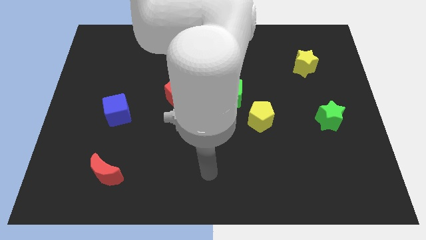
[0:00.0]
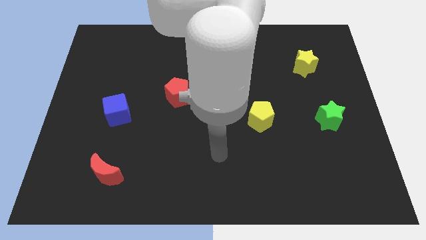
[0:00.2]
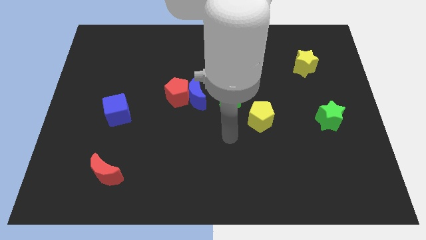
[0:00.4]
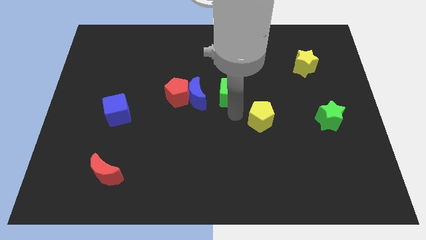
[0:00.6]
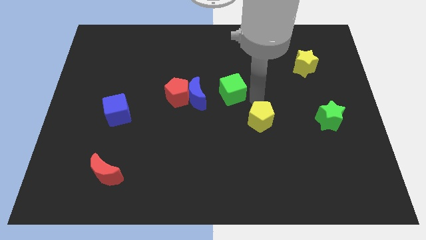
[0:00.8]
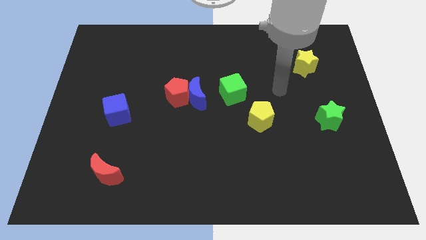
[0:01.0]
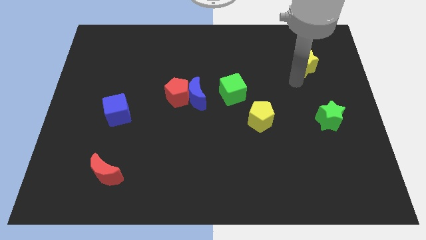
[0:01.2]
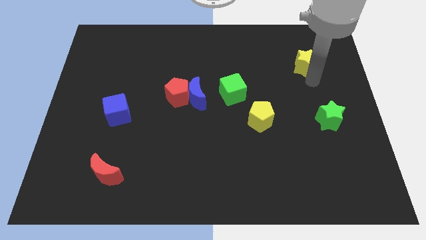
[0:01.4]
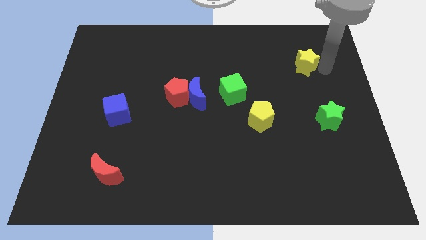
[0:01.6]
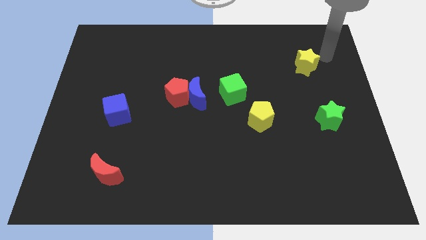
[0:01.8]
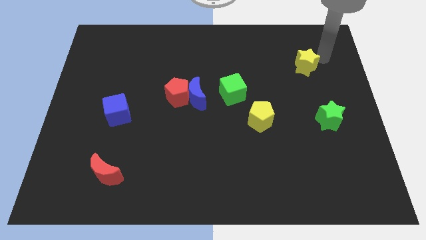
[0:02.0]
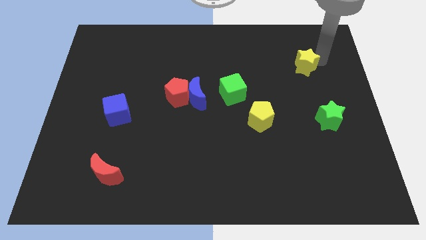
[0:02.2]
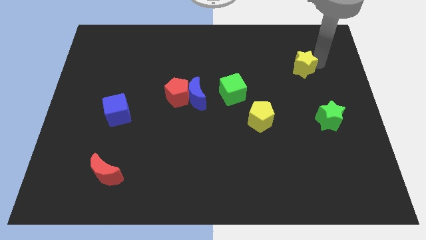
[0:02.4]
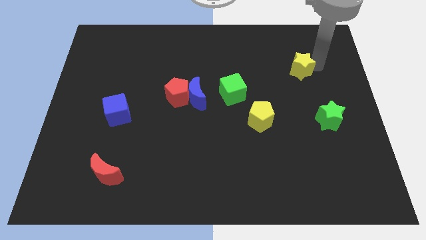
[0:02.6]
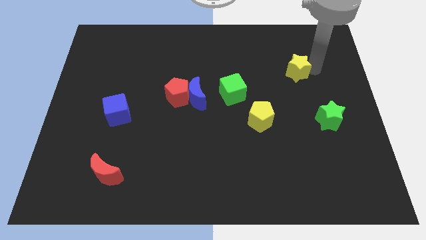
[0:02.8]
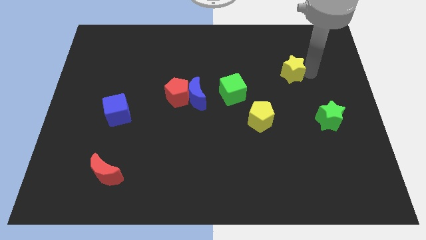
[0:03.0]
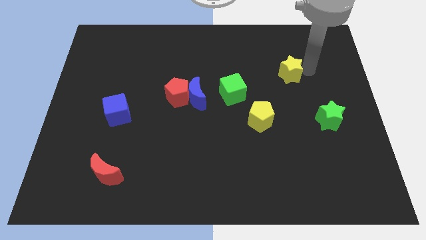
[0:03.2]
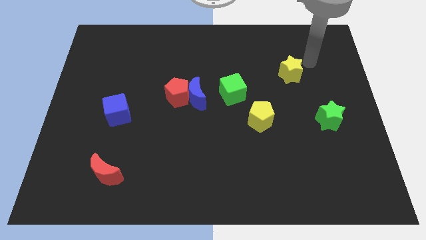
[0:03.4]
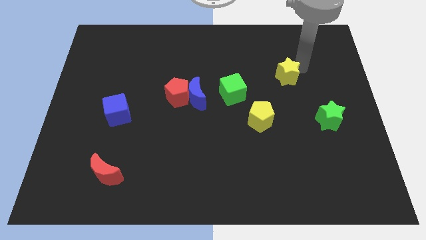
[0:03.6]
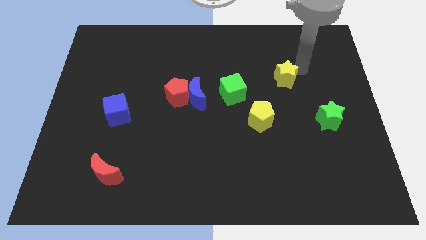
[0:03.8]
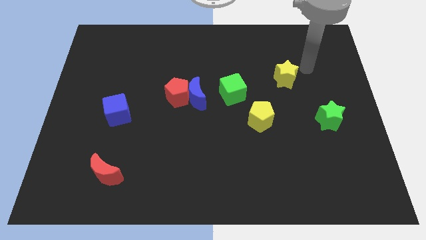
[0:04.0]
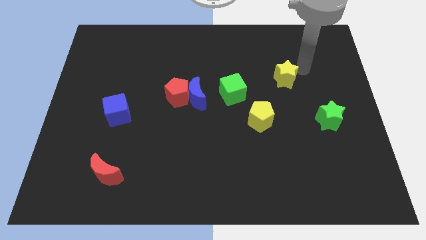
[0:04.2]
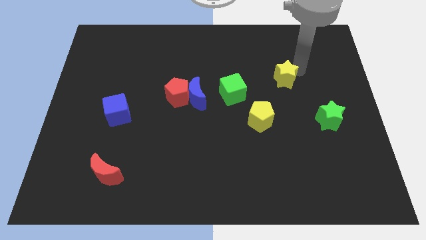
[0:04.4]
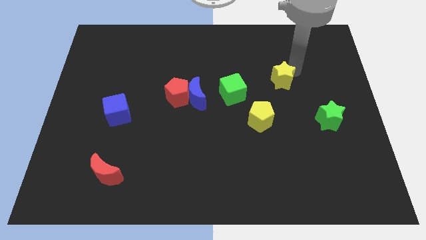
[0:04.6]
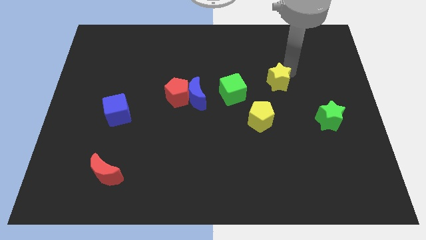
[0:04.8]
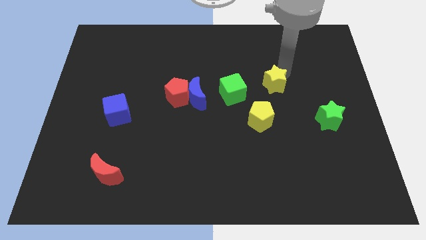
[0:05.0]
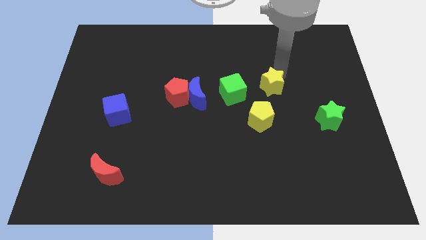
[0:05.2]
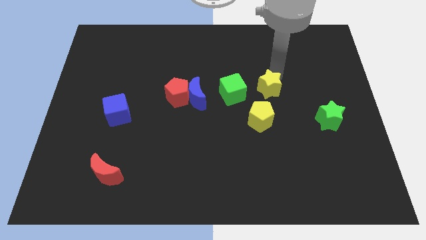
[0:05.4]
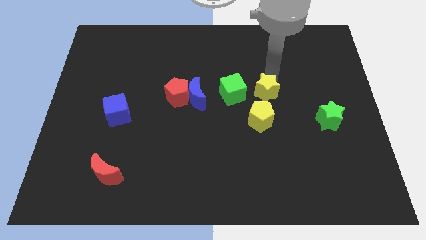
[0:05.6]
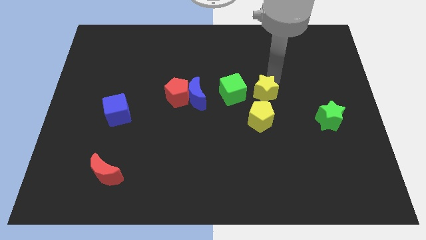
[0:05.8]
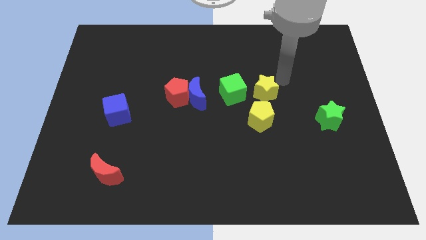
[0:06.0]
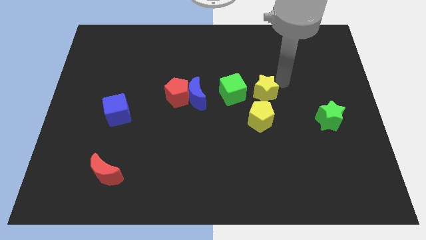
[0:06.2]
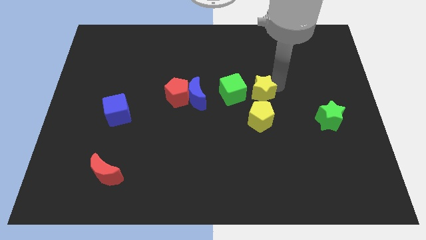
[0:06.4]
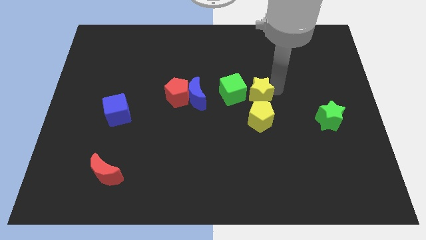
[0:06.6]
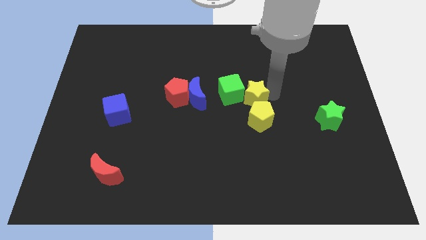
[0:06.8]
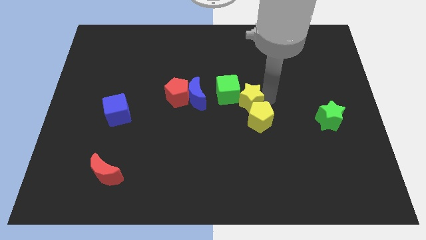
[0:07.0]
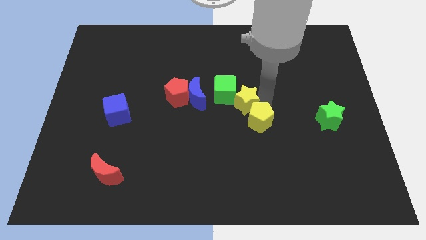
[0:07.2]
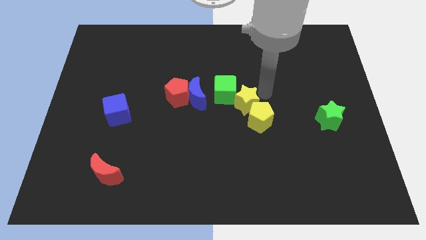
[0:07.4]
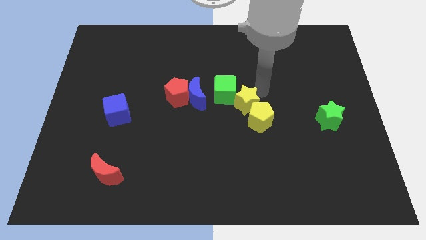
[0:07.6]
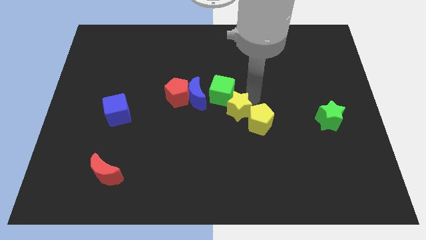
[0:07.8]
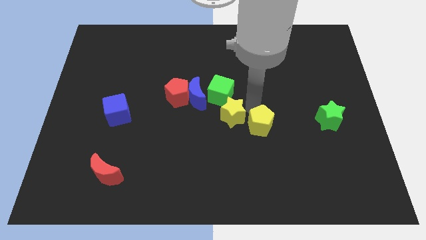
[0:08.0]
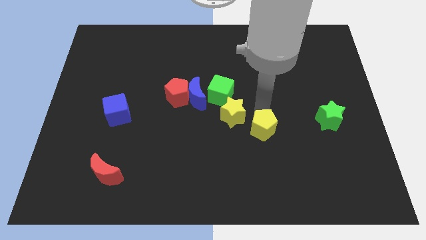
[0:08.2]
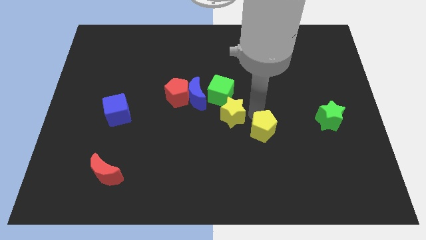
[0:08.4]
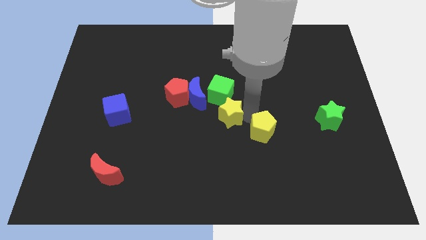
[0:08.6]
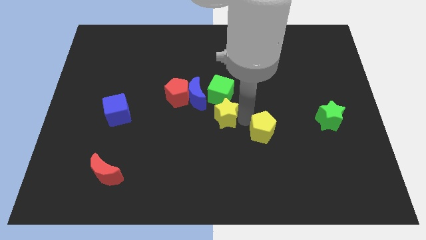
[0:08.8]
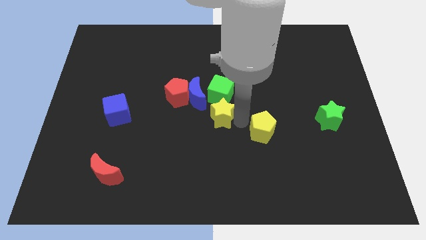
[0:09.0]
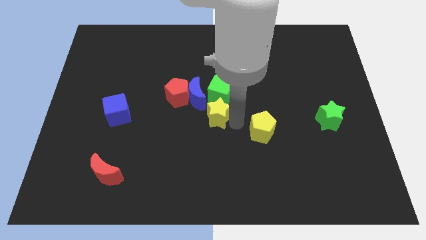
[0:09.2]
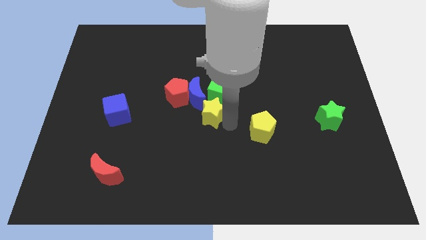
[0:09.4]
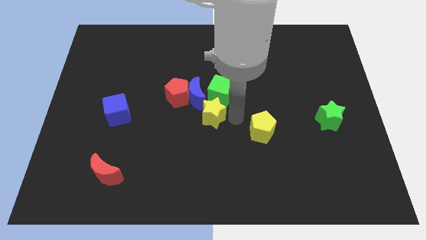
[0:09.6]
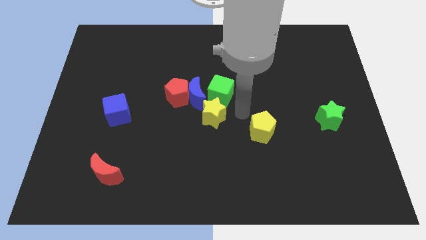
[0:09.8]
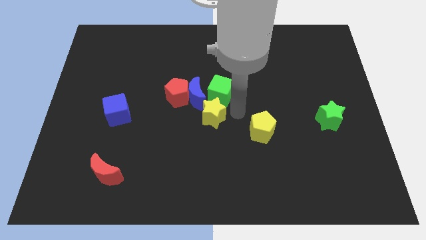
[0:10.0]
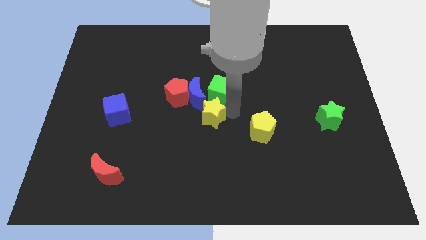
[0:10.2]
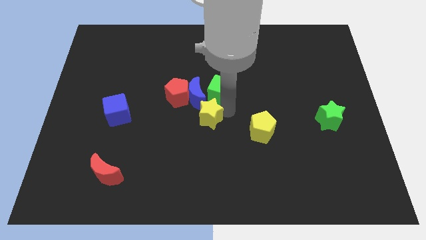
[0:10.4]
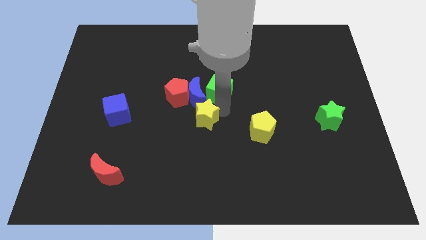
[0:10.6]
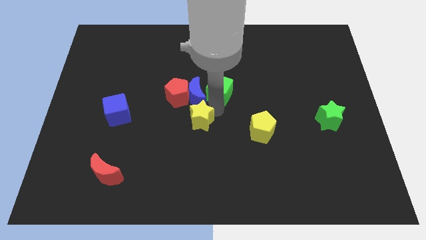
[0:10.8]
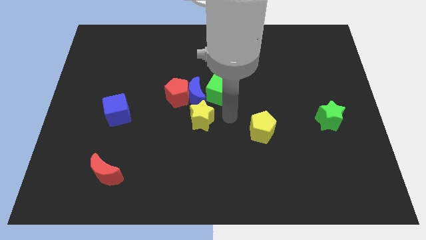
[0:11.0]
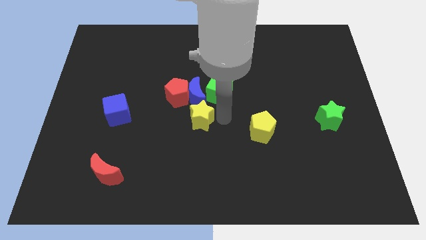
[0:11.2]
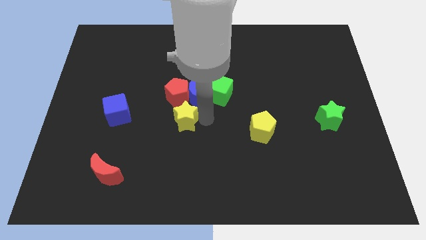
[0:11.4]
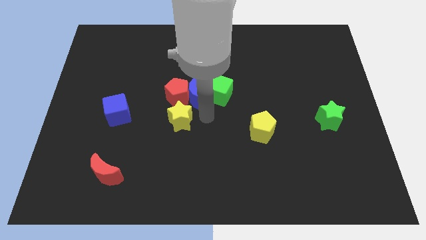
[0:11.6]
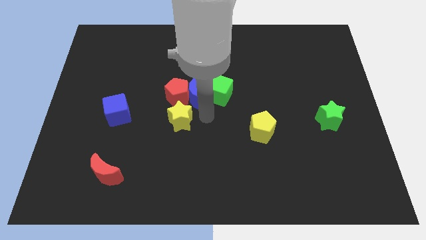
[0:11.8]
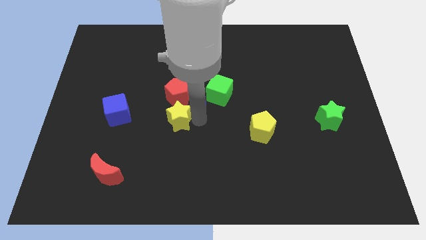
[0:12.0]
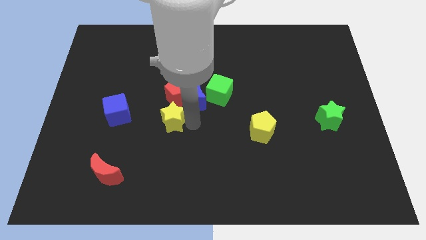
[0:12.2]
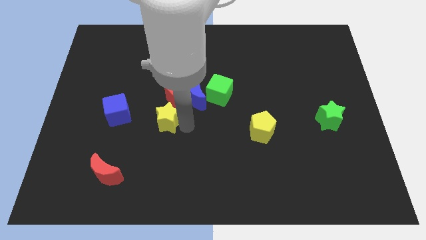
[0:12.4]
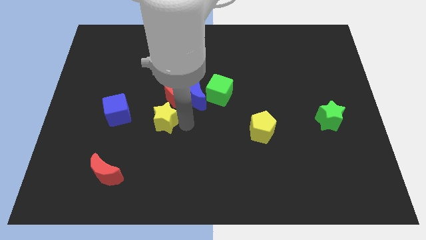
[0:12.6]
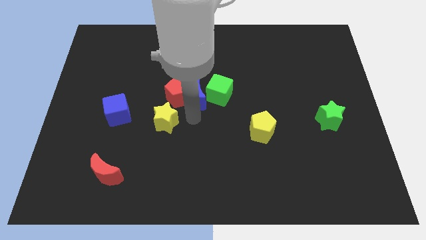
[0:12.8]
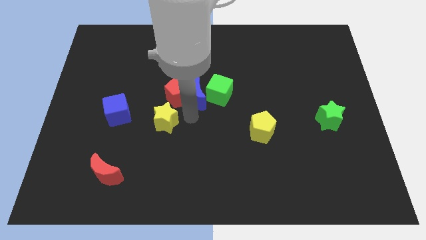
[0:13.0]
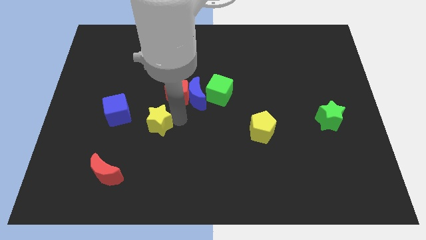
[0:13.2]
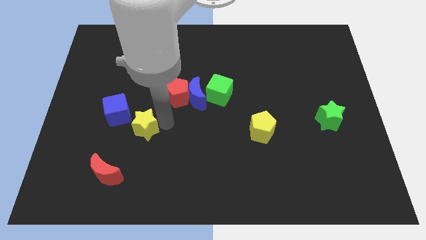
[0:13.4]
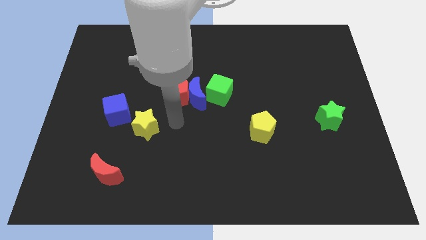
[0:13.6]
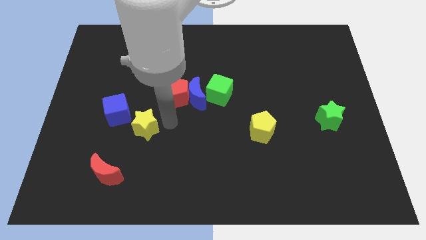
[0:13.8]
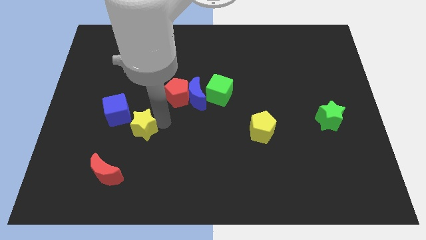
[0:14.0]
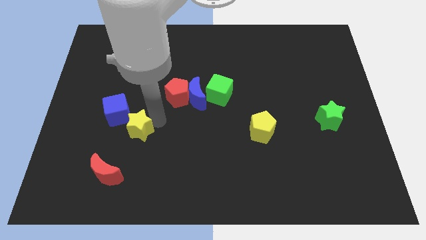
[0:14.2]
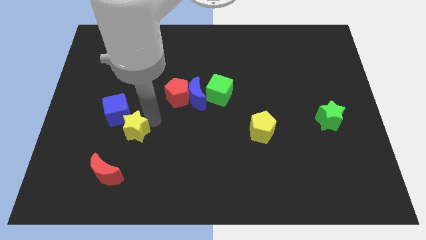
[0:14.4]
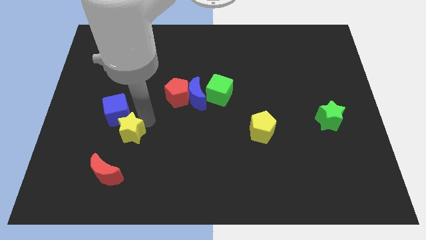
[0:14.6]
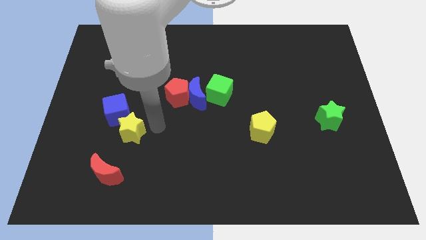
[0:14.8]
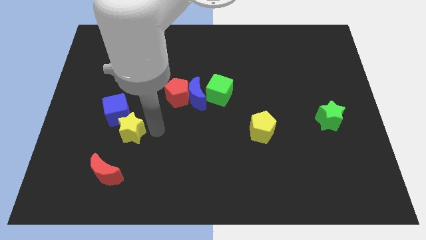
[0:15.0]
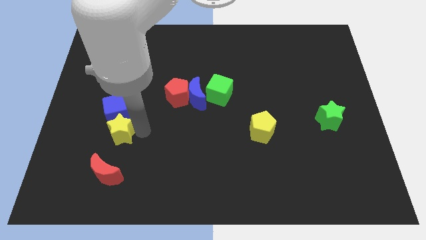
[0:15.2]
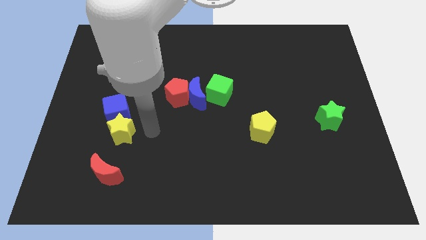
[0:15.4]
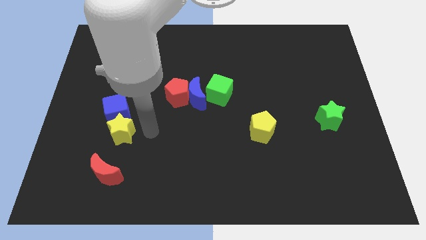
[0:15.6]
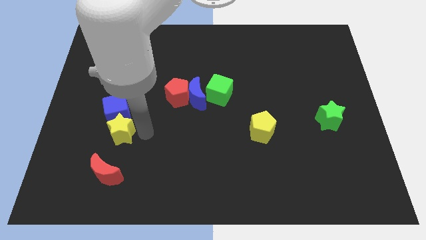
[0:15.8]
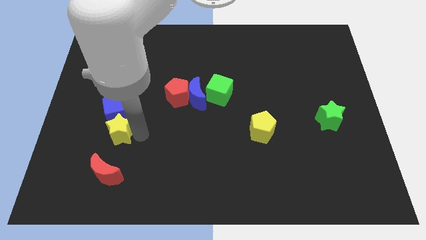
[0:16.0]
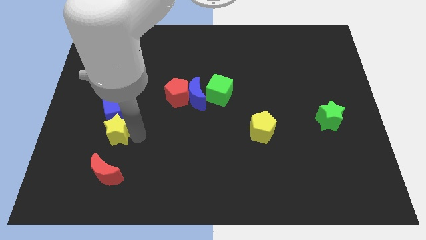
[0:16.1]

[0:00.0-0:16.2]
push the yellow star to the bottom left side of the blue cube
